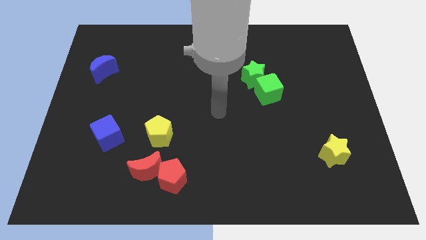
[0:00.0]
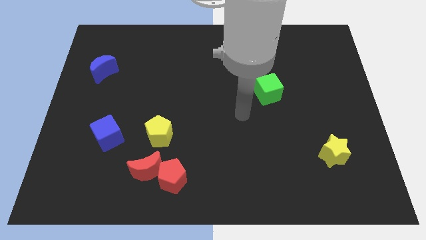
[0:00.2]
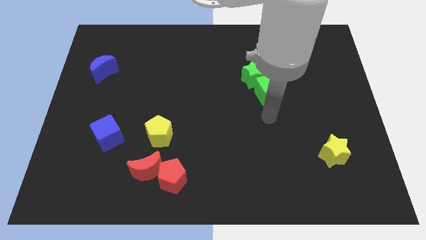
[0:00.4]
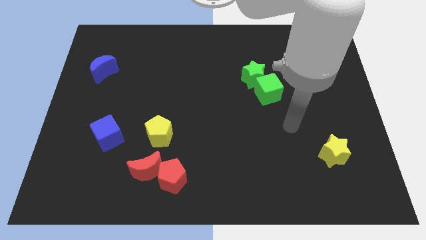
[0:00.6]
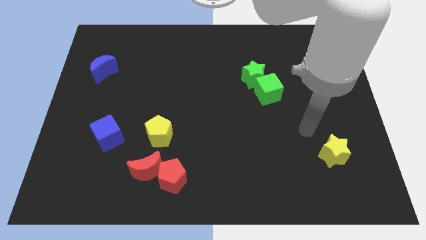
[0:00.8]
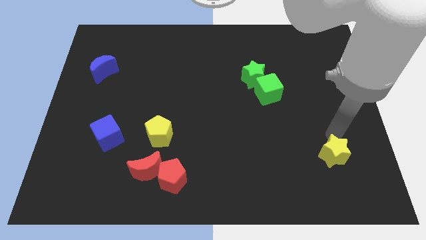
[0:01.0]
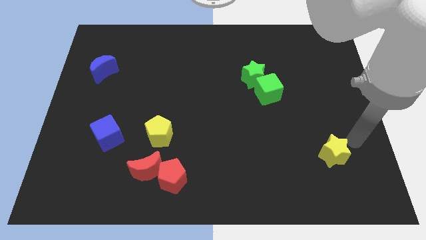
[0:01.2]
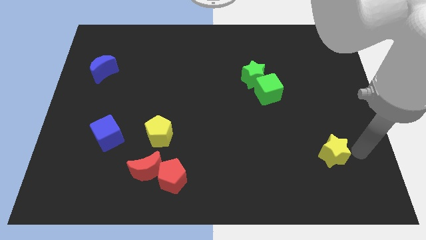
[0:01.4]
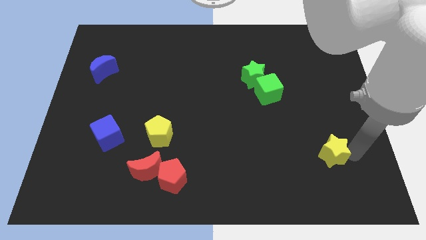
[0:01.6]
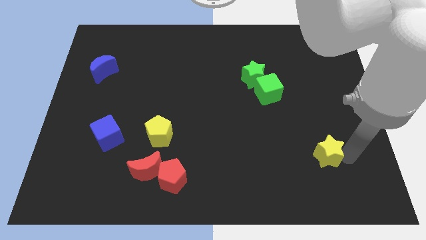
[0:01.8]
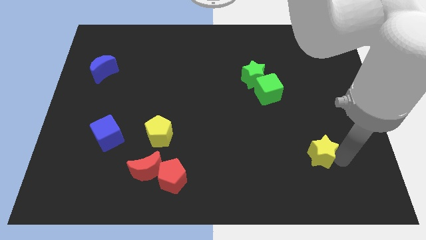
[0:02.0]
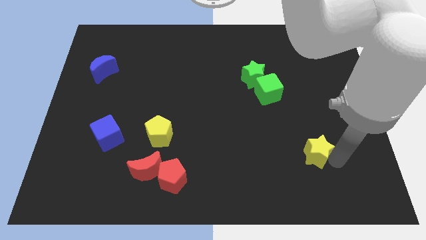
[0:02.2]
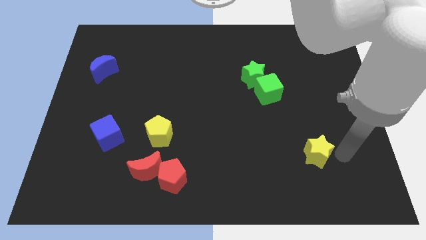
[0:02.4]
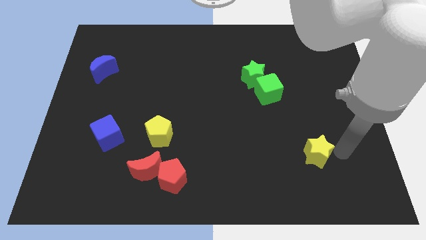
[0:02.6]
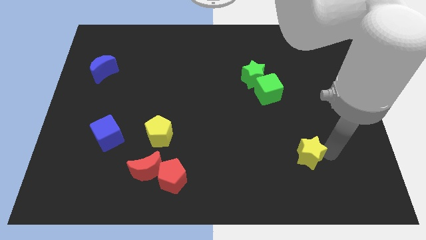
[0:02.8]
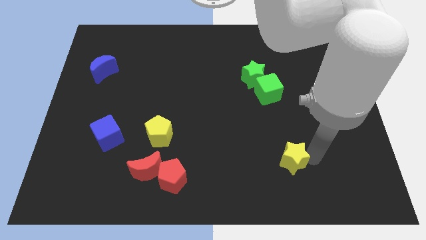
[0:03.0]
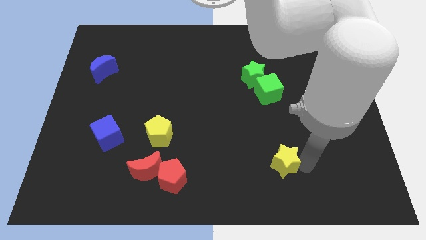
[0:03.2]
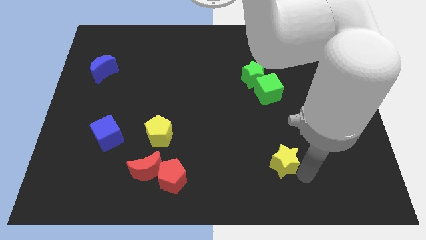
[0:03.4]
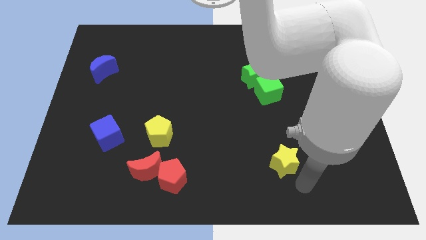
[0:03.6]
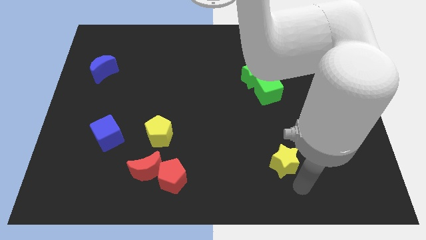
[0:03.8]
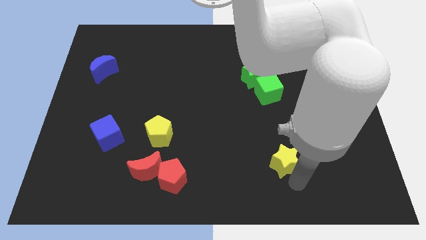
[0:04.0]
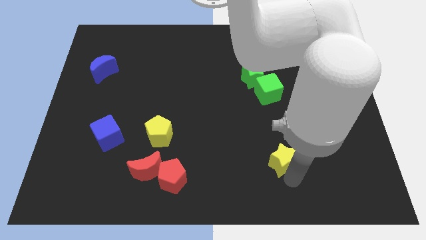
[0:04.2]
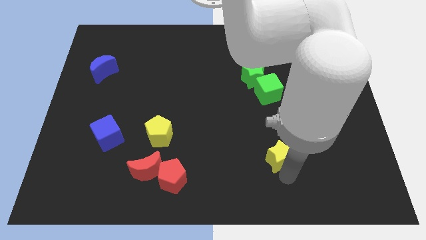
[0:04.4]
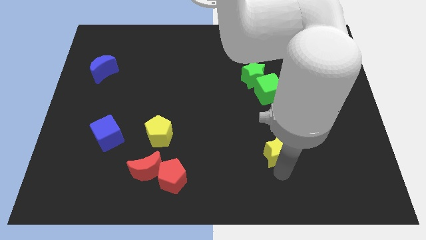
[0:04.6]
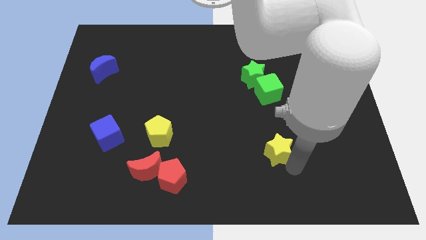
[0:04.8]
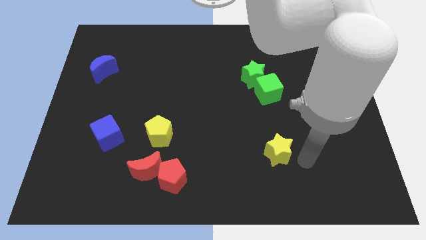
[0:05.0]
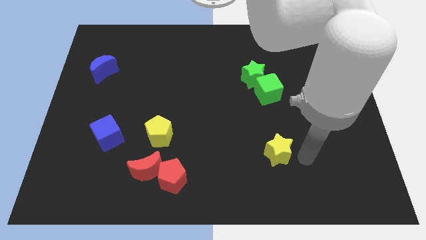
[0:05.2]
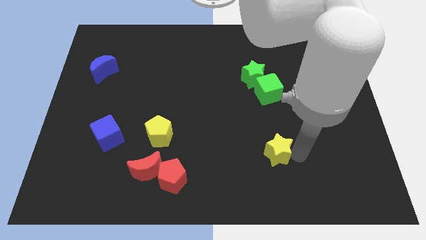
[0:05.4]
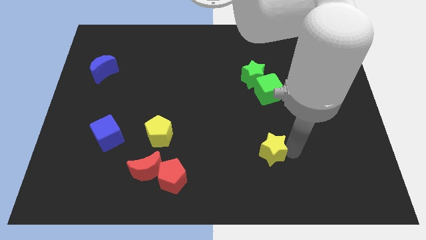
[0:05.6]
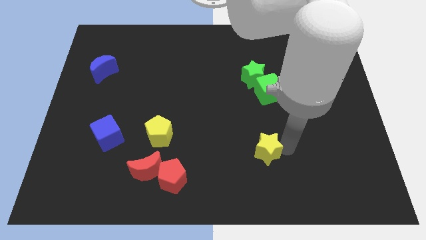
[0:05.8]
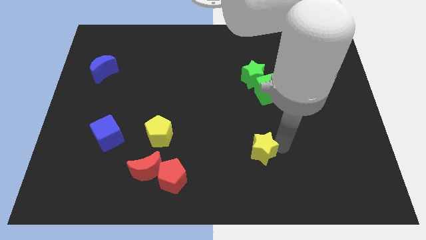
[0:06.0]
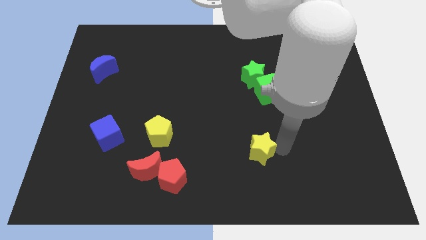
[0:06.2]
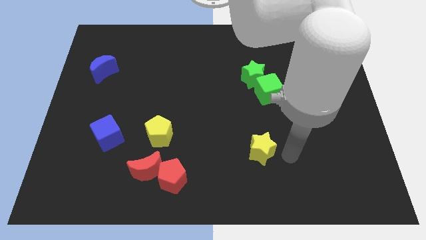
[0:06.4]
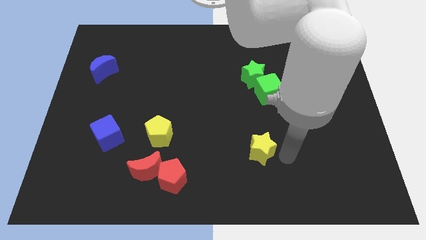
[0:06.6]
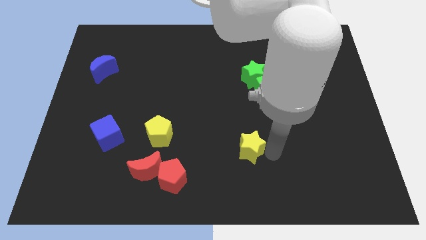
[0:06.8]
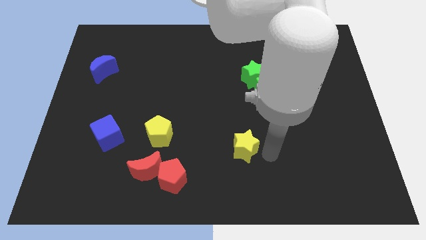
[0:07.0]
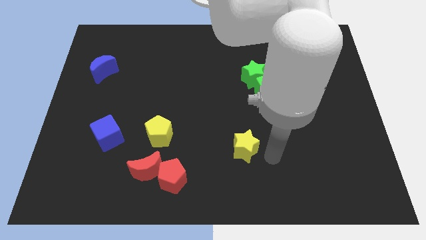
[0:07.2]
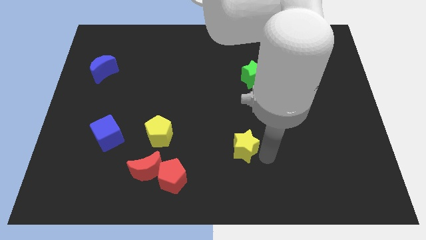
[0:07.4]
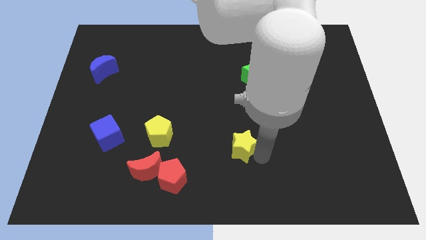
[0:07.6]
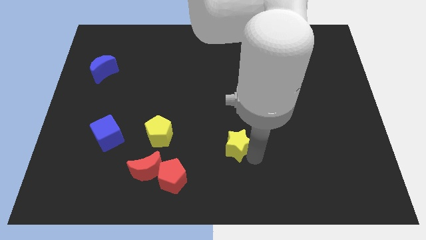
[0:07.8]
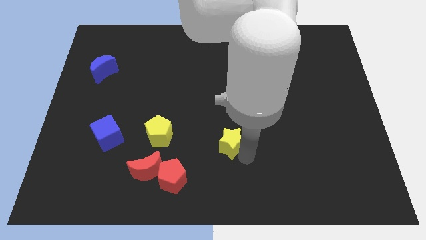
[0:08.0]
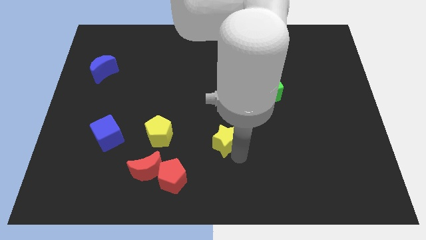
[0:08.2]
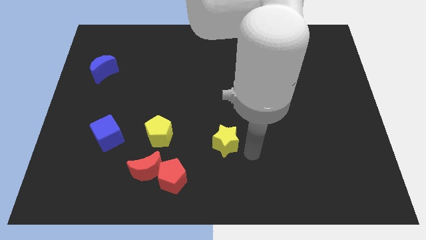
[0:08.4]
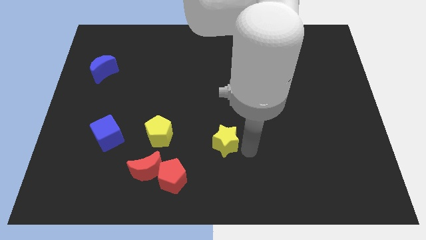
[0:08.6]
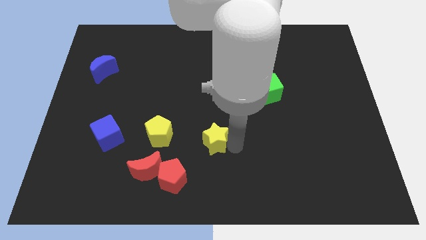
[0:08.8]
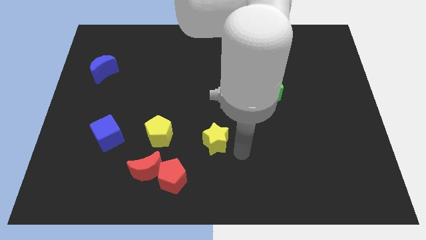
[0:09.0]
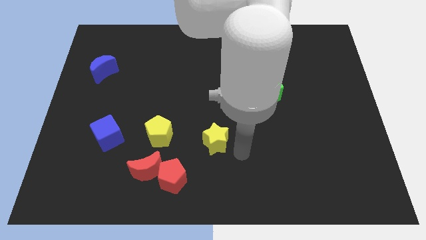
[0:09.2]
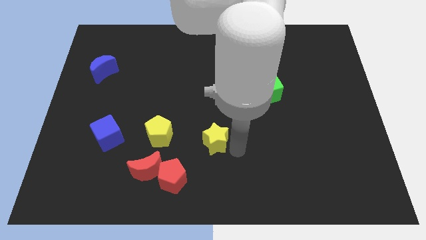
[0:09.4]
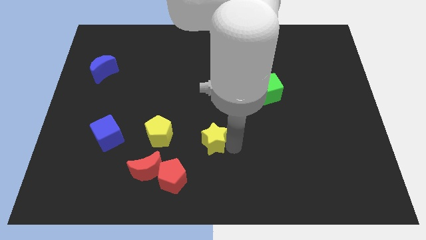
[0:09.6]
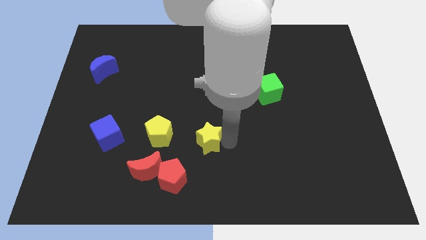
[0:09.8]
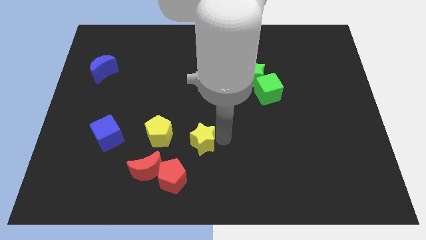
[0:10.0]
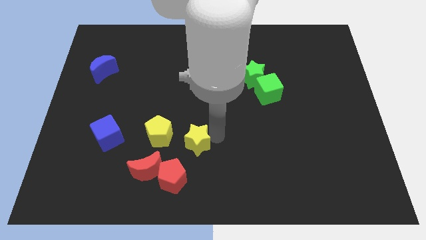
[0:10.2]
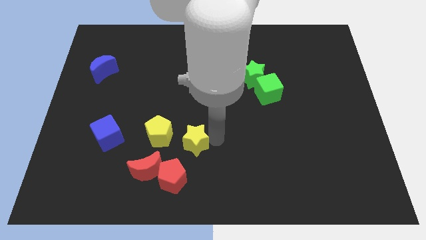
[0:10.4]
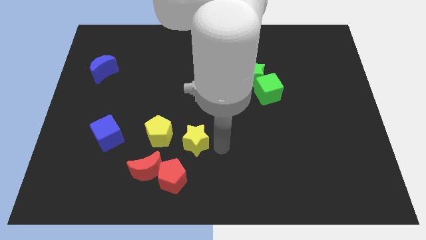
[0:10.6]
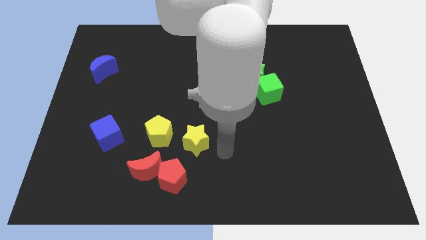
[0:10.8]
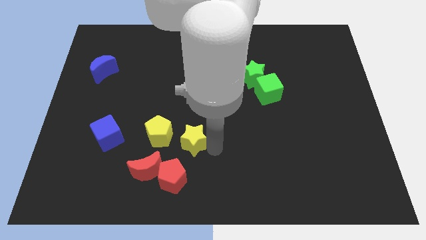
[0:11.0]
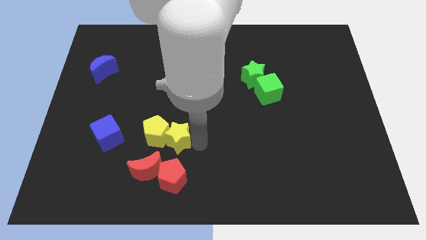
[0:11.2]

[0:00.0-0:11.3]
move the yellow star to the right side of the blue cube

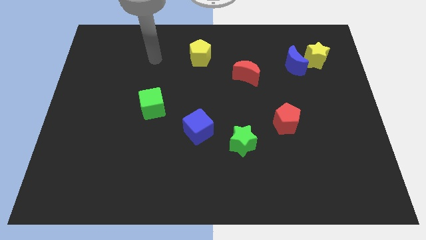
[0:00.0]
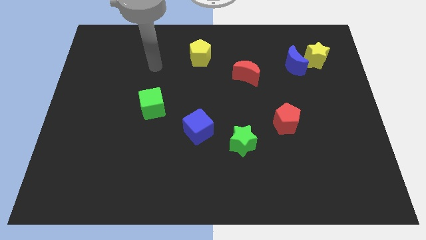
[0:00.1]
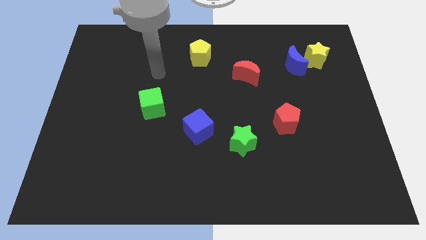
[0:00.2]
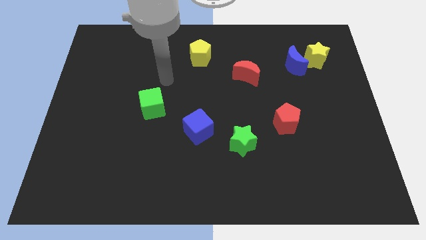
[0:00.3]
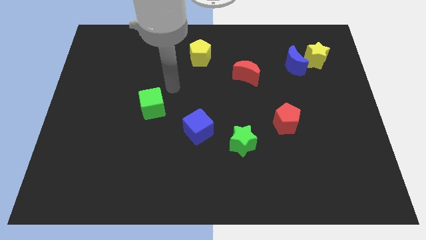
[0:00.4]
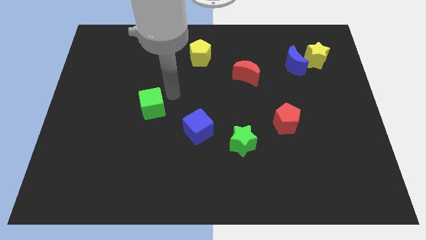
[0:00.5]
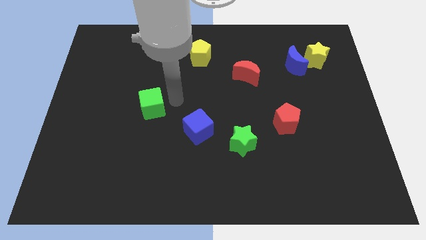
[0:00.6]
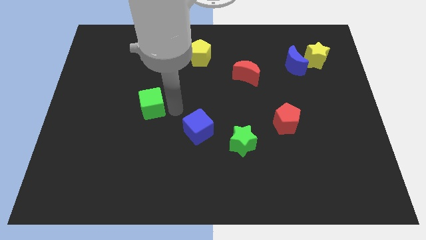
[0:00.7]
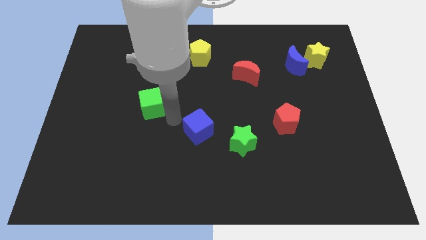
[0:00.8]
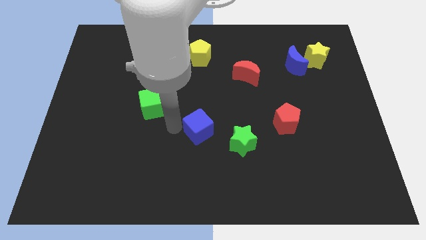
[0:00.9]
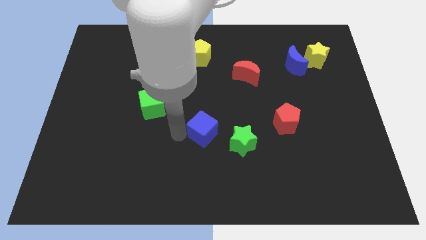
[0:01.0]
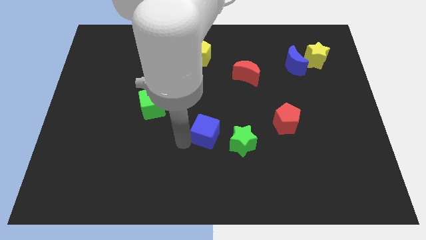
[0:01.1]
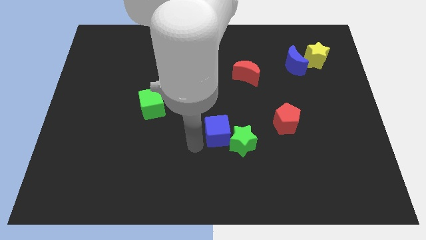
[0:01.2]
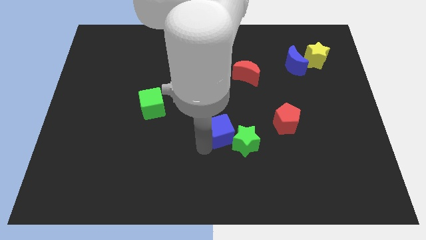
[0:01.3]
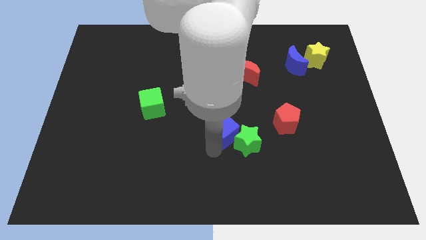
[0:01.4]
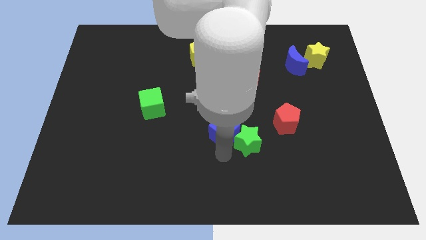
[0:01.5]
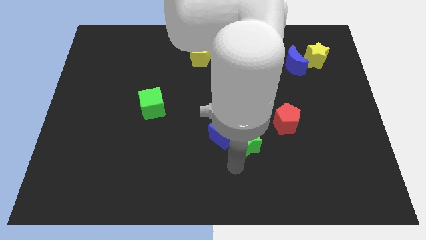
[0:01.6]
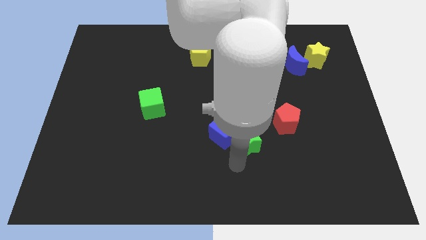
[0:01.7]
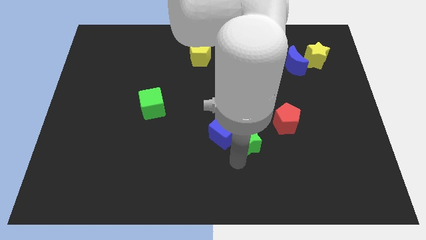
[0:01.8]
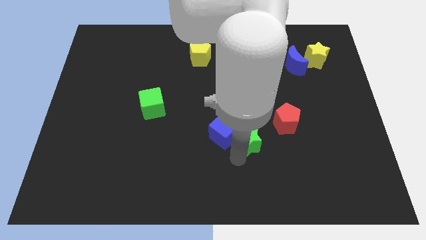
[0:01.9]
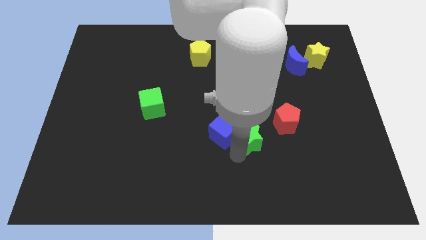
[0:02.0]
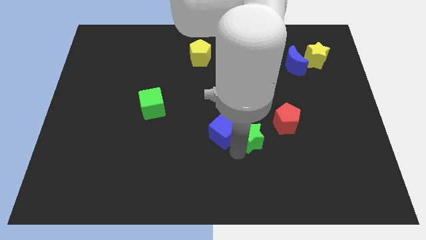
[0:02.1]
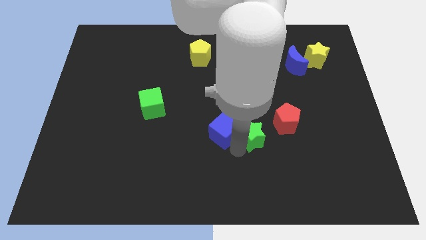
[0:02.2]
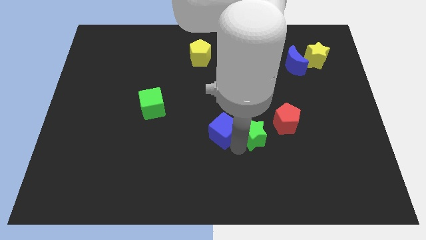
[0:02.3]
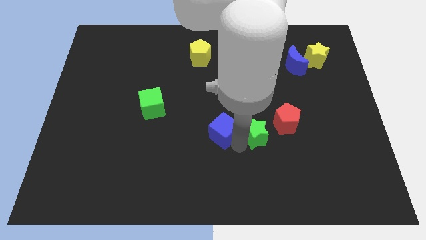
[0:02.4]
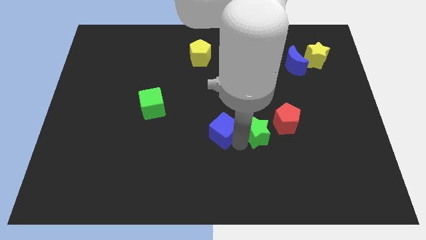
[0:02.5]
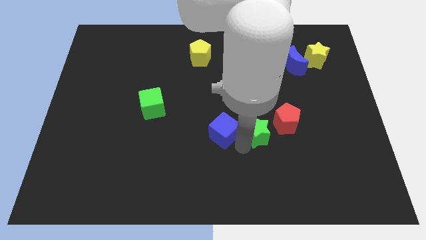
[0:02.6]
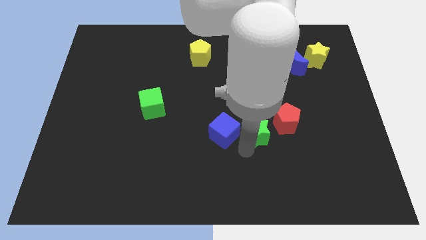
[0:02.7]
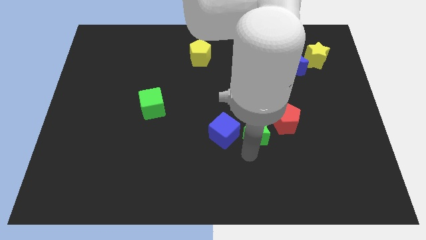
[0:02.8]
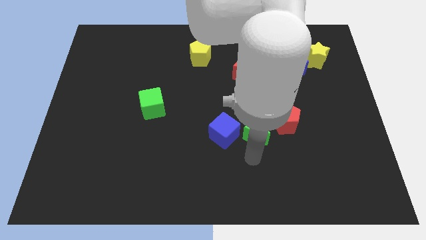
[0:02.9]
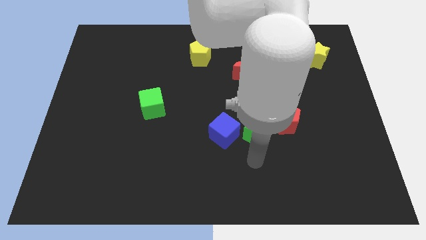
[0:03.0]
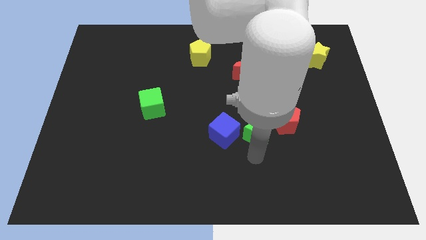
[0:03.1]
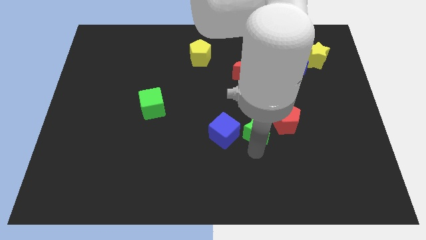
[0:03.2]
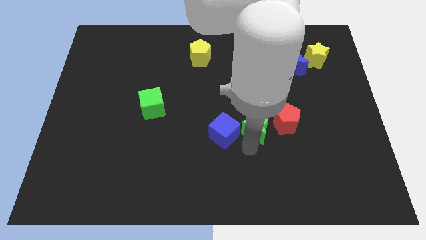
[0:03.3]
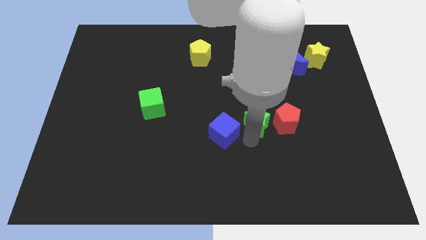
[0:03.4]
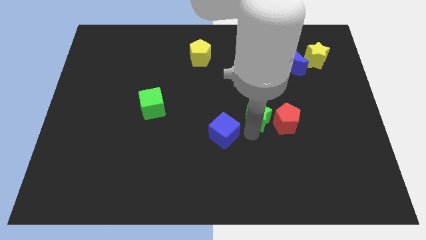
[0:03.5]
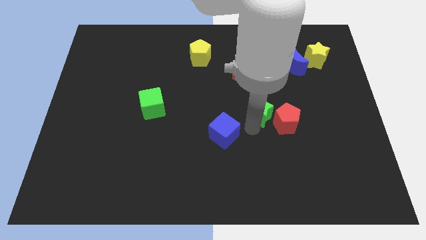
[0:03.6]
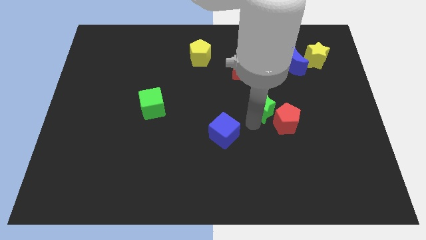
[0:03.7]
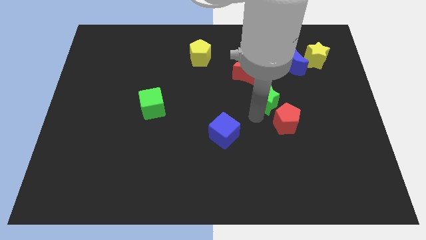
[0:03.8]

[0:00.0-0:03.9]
put the green star above the red pentagon
